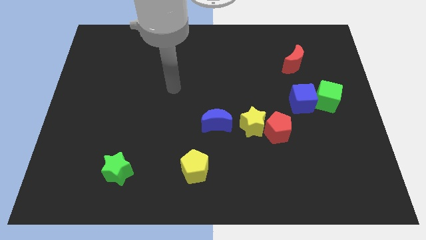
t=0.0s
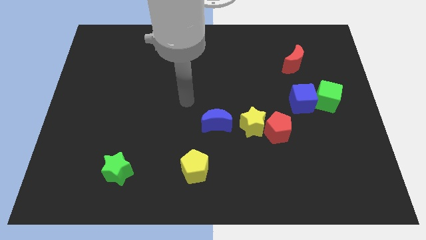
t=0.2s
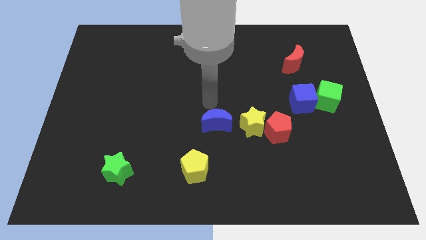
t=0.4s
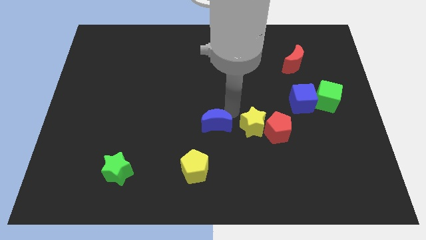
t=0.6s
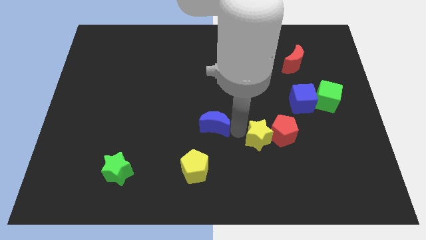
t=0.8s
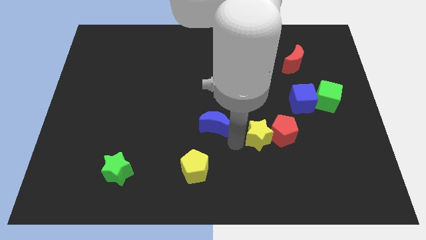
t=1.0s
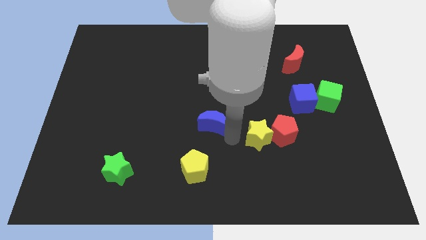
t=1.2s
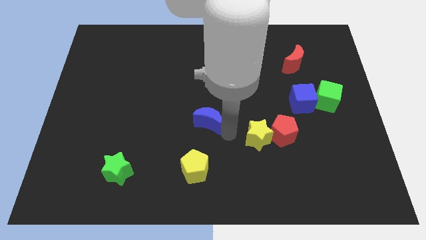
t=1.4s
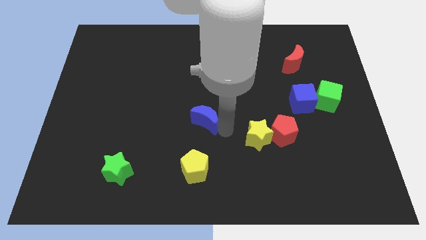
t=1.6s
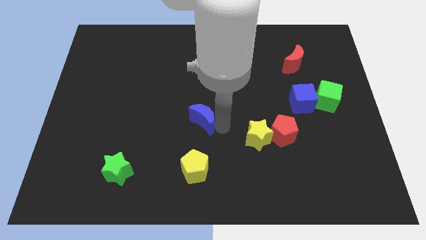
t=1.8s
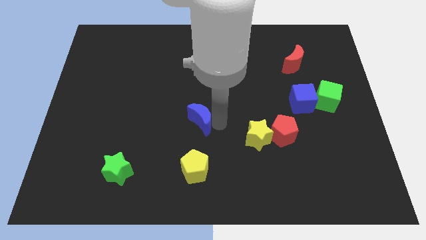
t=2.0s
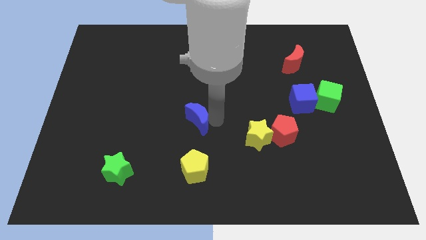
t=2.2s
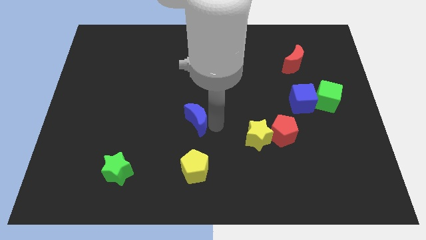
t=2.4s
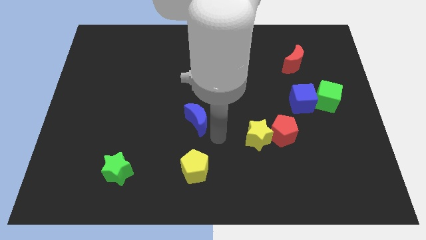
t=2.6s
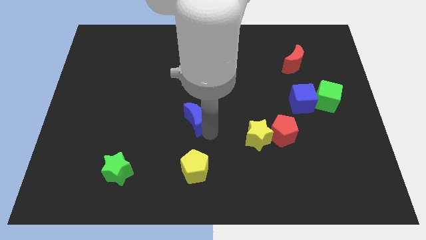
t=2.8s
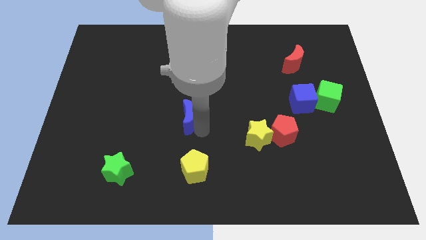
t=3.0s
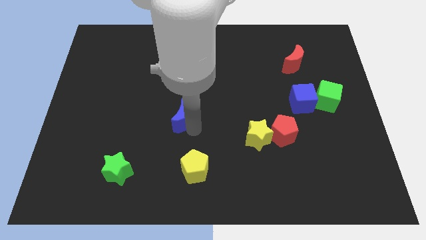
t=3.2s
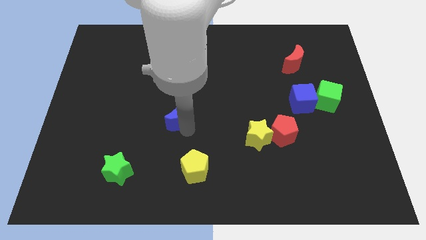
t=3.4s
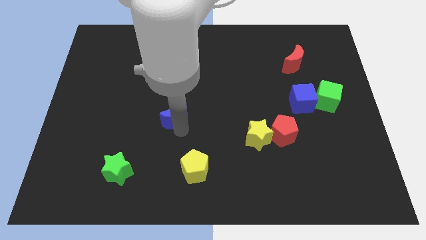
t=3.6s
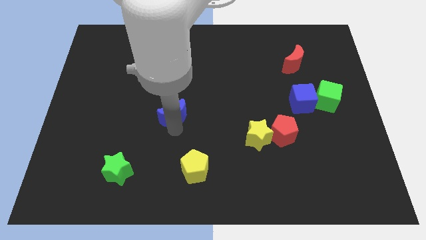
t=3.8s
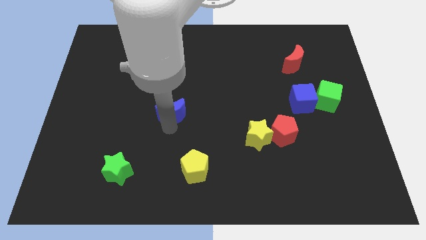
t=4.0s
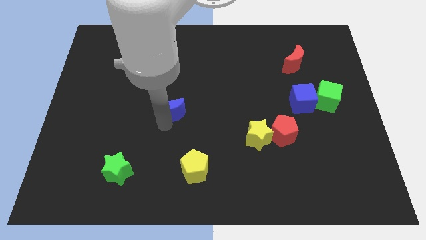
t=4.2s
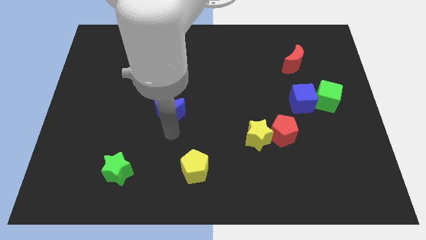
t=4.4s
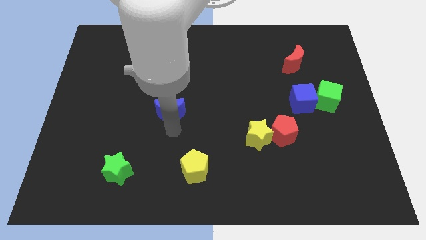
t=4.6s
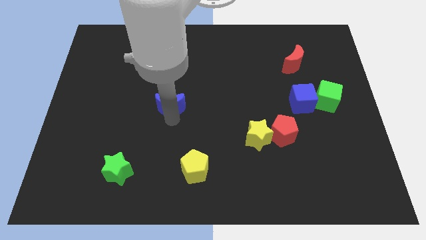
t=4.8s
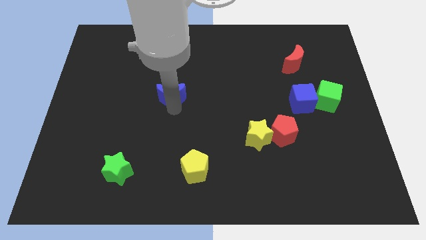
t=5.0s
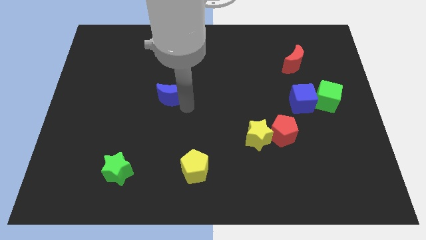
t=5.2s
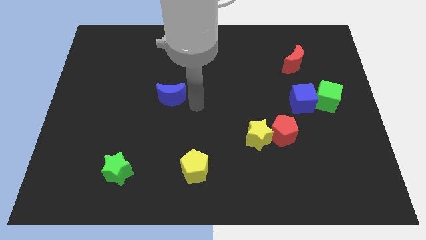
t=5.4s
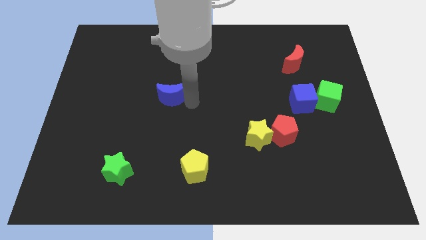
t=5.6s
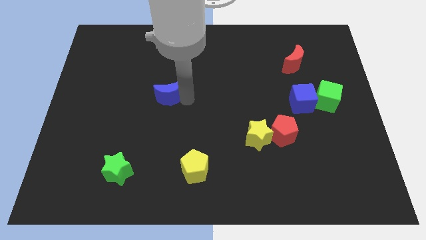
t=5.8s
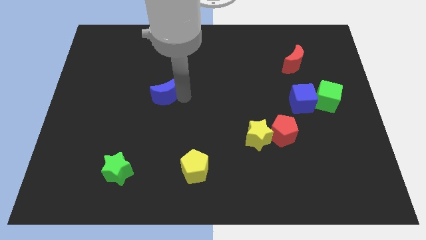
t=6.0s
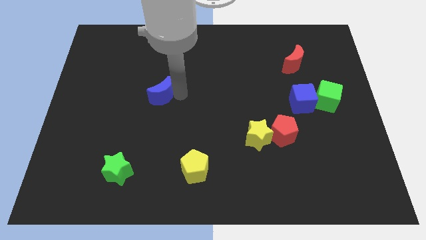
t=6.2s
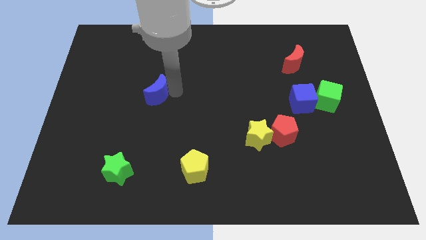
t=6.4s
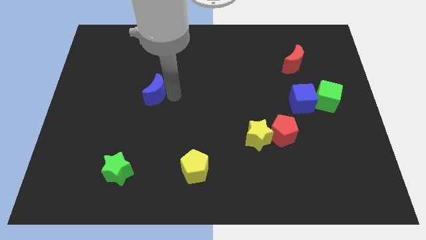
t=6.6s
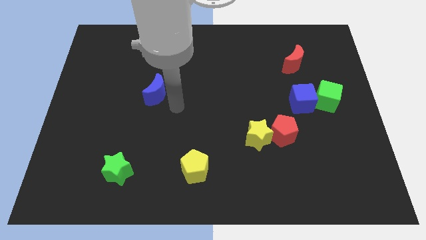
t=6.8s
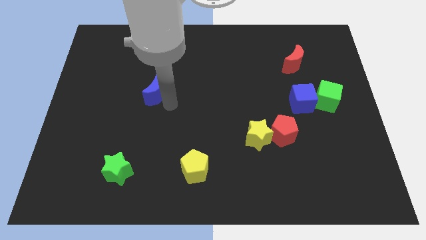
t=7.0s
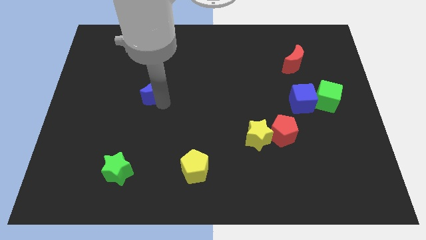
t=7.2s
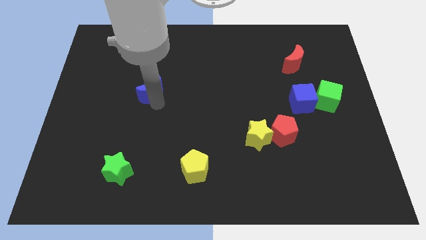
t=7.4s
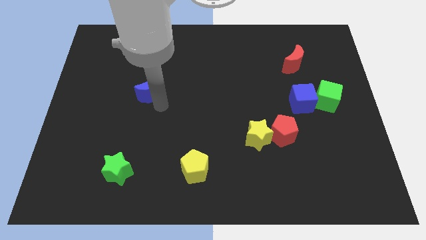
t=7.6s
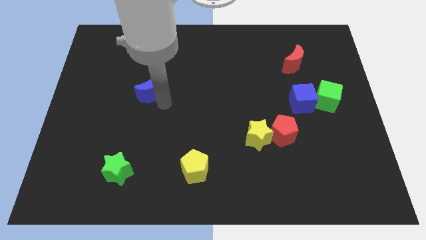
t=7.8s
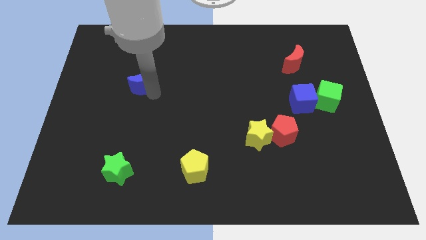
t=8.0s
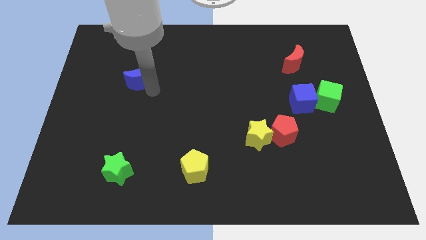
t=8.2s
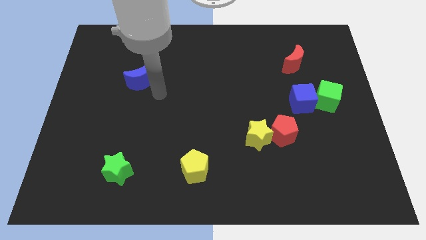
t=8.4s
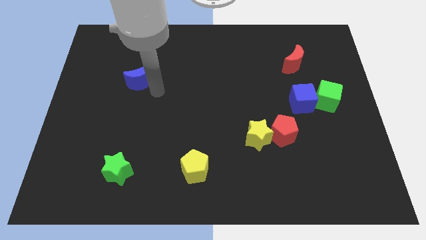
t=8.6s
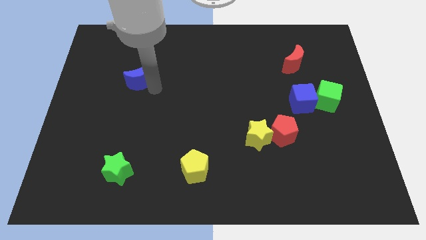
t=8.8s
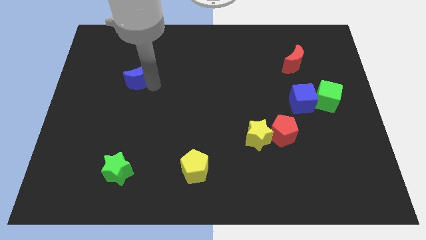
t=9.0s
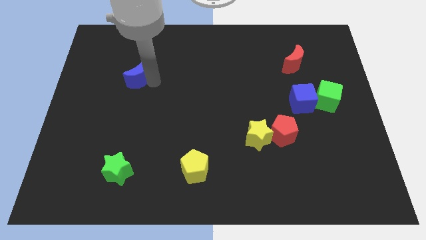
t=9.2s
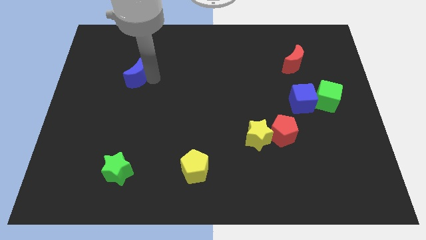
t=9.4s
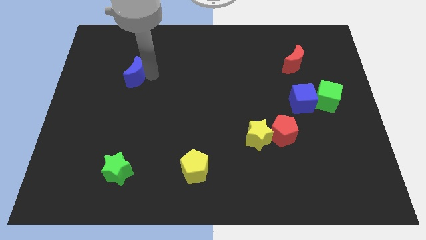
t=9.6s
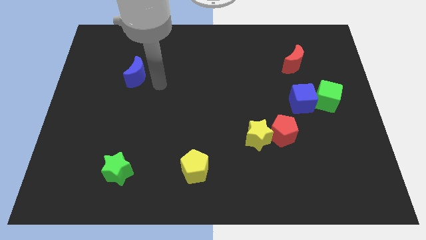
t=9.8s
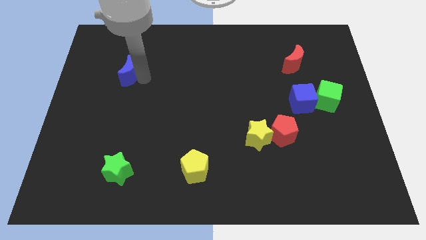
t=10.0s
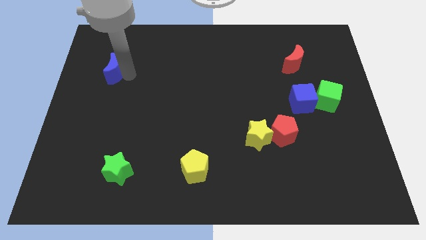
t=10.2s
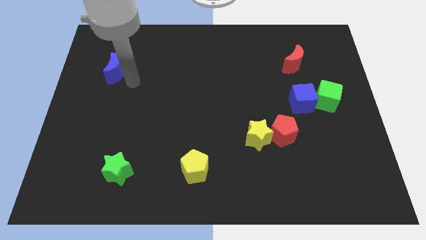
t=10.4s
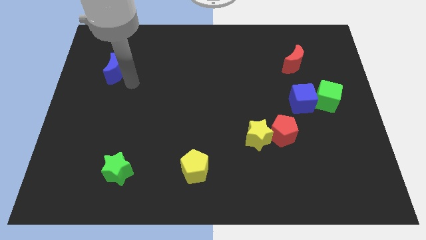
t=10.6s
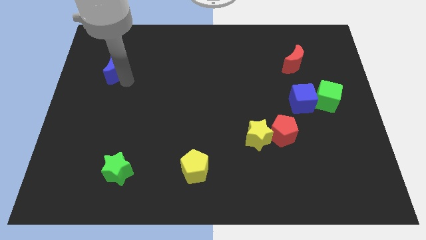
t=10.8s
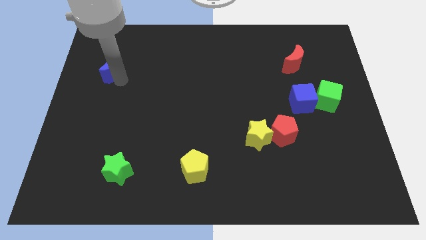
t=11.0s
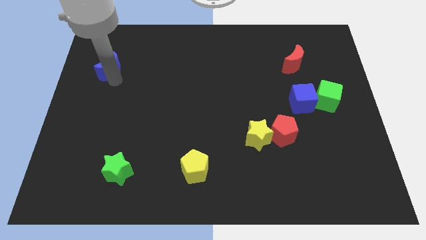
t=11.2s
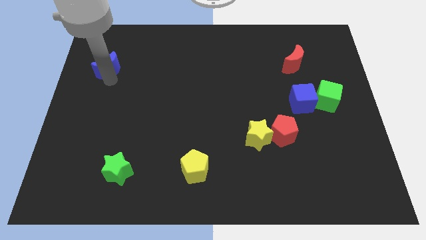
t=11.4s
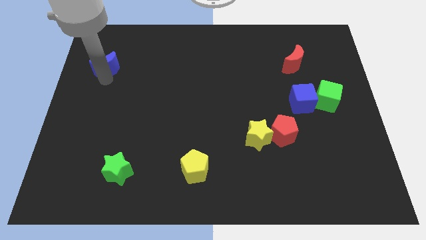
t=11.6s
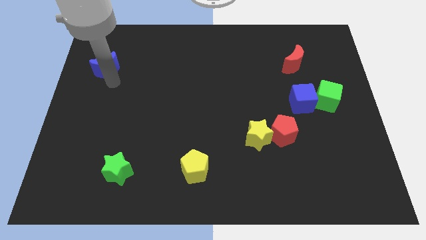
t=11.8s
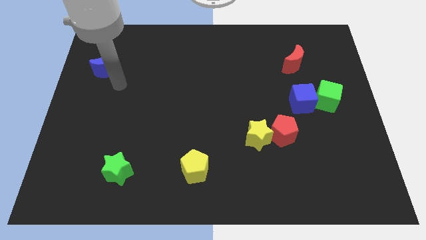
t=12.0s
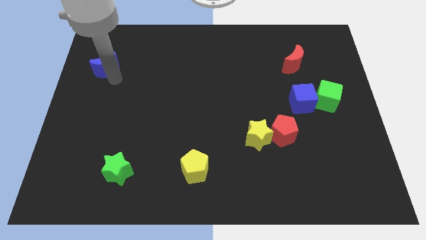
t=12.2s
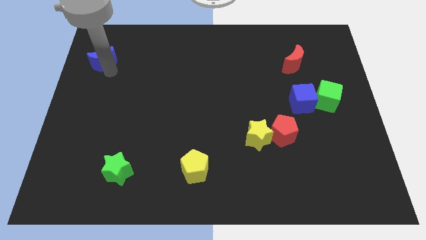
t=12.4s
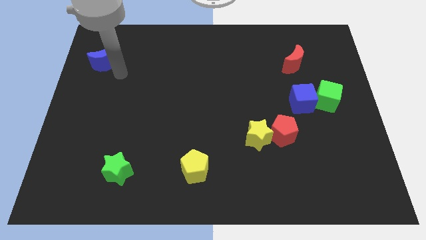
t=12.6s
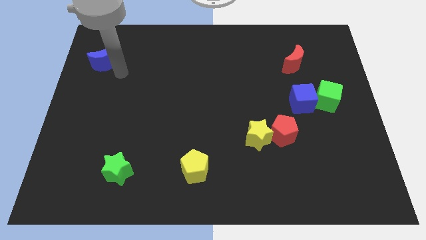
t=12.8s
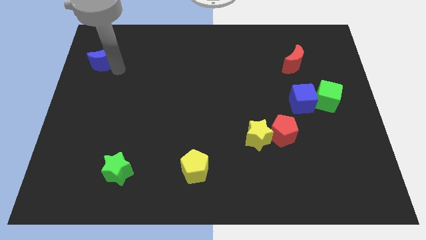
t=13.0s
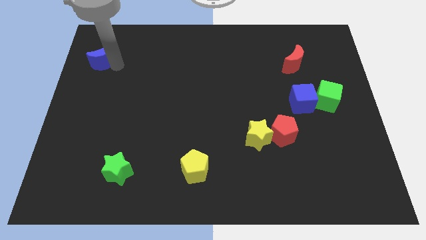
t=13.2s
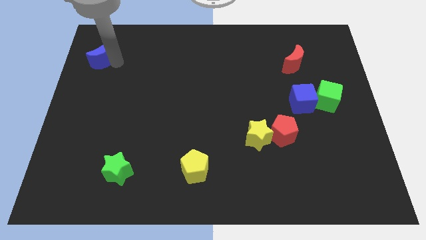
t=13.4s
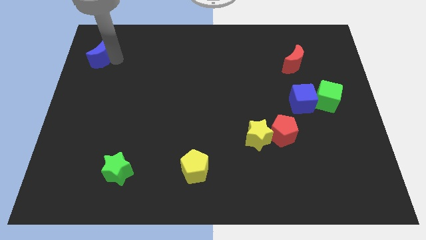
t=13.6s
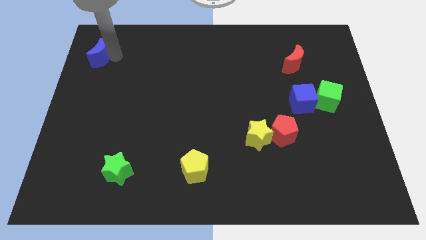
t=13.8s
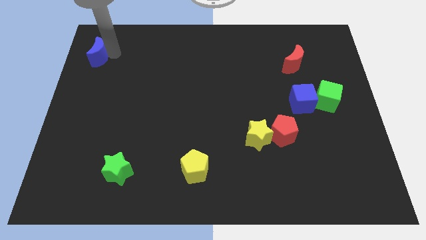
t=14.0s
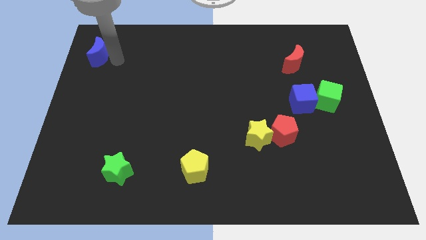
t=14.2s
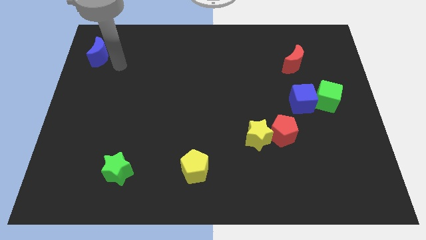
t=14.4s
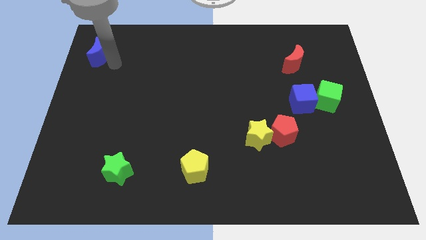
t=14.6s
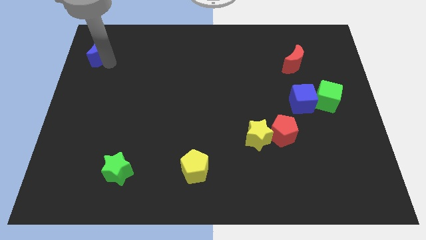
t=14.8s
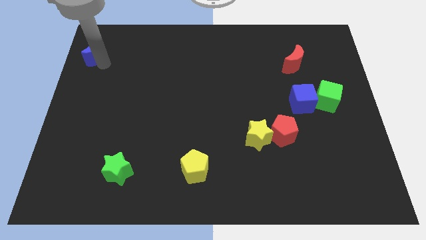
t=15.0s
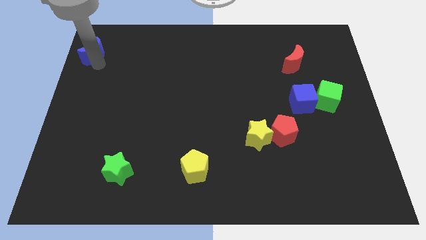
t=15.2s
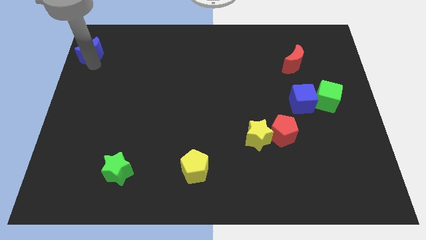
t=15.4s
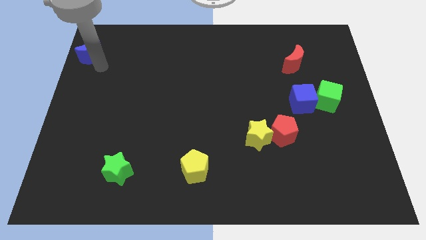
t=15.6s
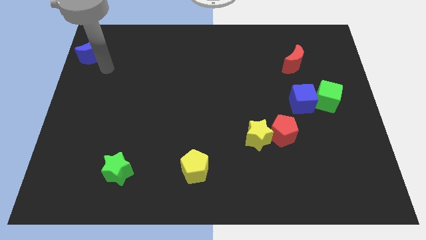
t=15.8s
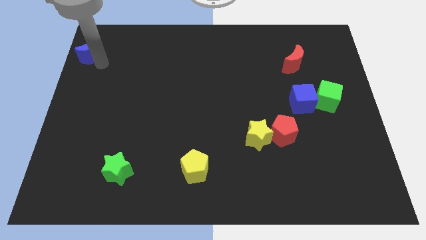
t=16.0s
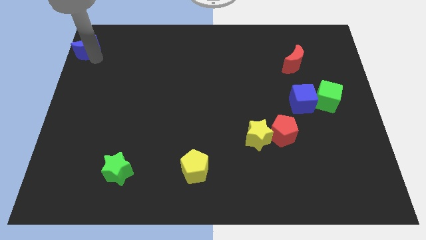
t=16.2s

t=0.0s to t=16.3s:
put the blue moon to the top left
